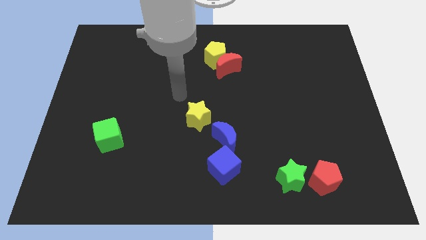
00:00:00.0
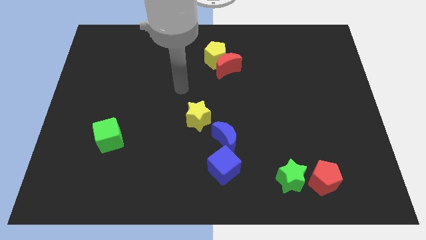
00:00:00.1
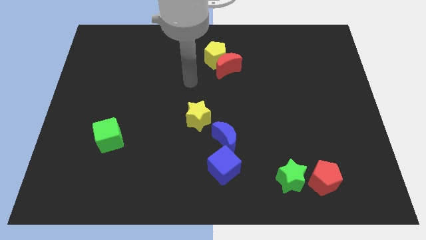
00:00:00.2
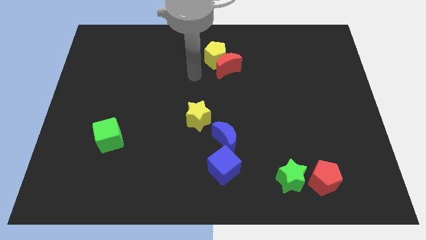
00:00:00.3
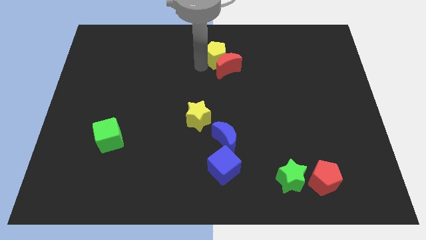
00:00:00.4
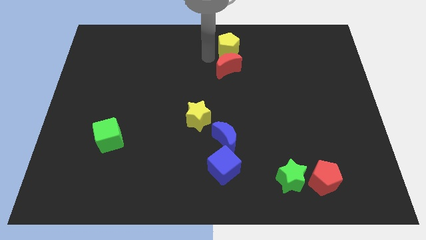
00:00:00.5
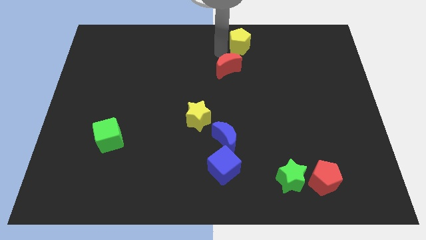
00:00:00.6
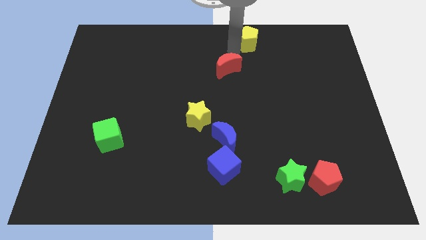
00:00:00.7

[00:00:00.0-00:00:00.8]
pull the red moon apart from the yellow pentagon

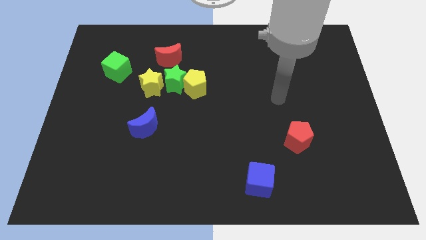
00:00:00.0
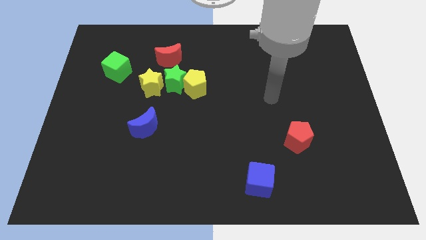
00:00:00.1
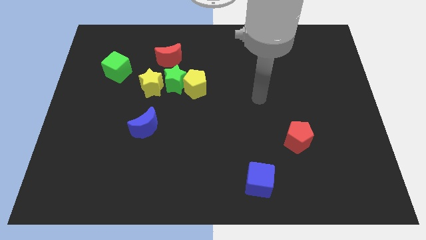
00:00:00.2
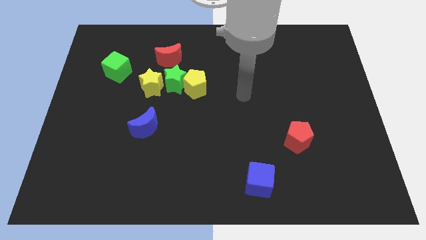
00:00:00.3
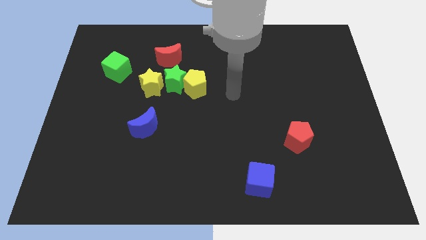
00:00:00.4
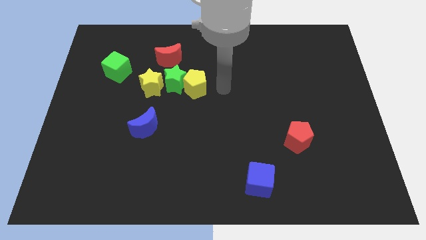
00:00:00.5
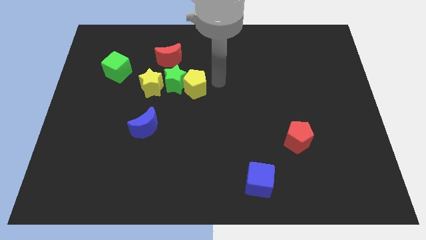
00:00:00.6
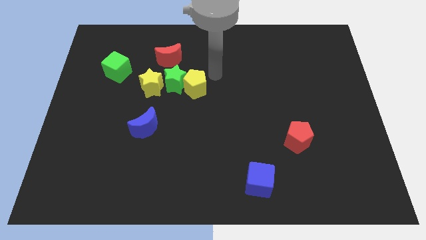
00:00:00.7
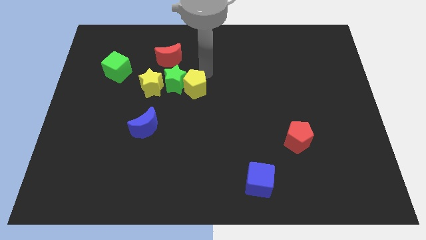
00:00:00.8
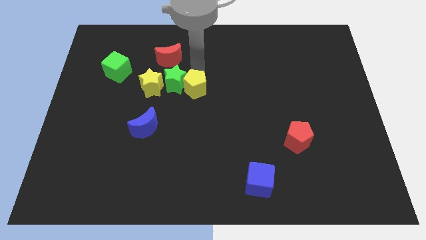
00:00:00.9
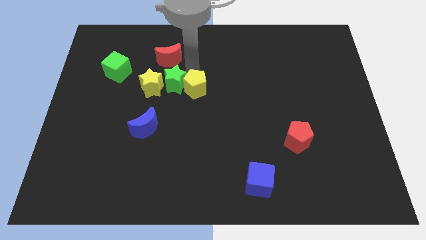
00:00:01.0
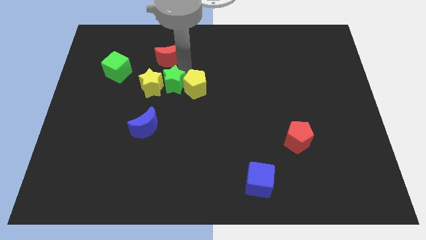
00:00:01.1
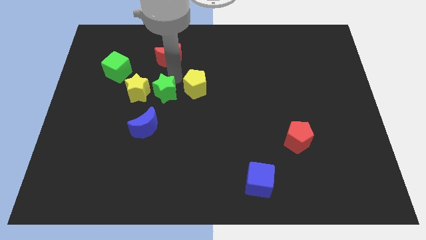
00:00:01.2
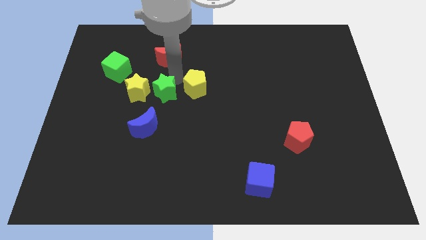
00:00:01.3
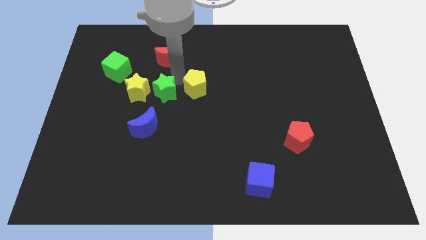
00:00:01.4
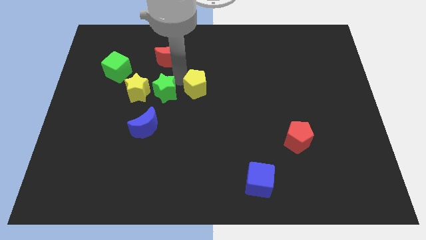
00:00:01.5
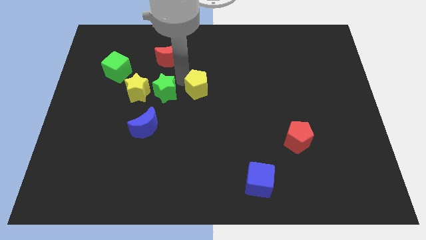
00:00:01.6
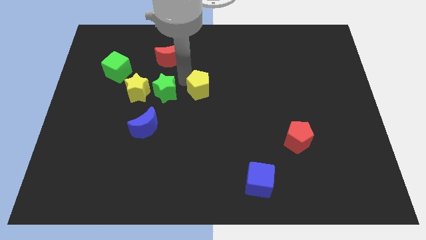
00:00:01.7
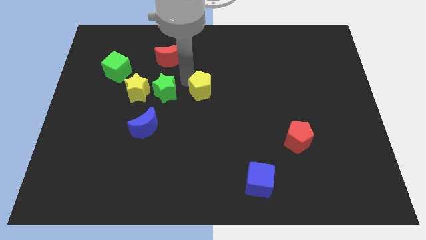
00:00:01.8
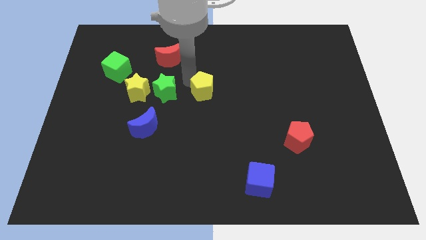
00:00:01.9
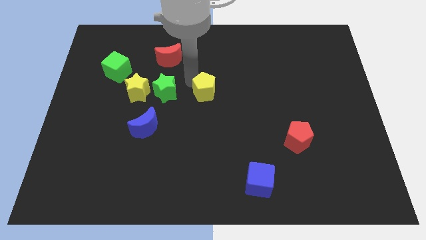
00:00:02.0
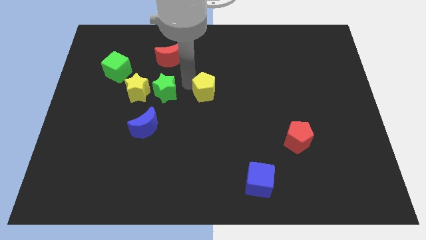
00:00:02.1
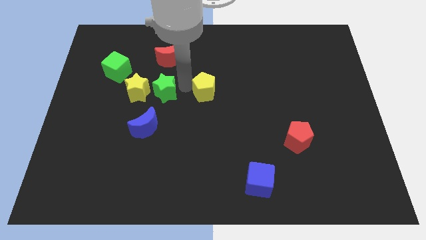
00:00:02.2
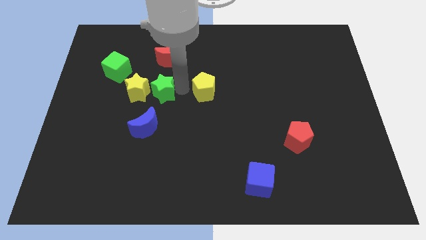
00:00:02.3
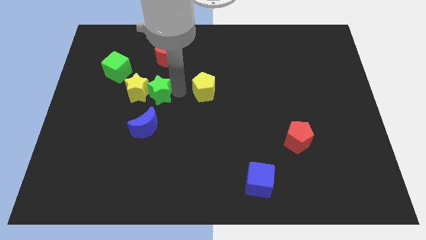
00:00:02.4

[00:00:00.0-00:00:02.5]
pull the yellow pentagon apart from the green star

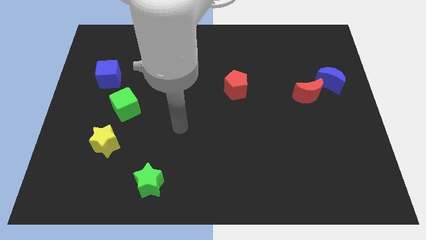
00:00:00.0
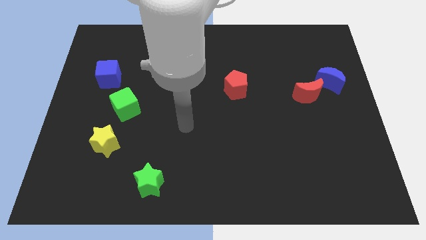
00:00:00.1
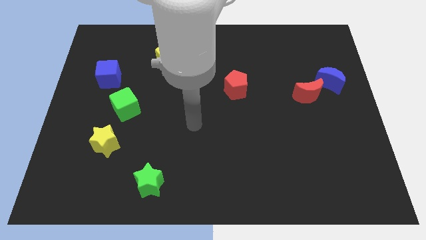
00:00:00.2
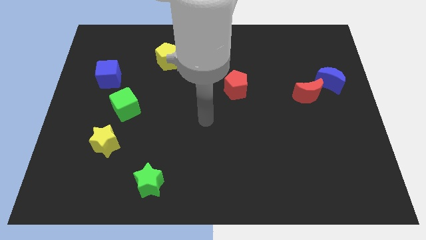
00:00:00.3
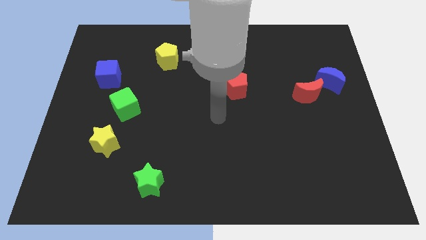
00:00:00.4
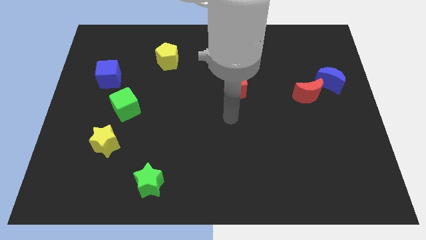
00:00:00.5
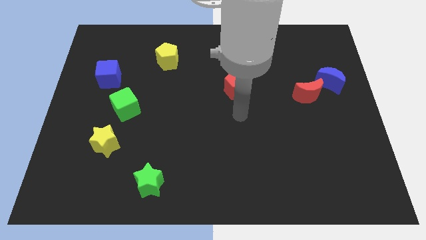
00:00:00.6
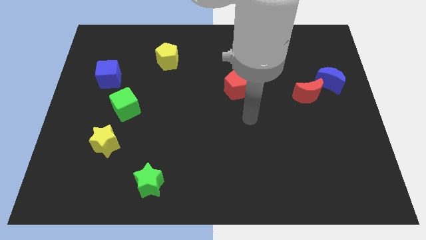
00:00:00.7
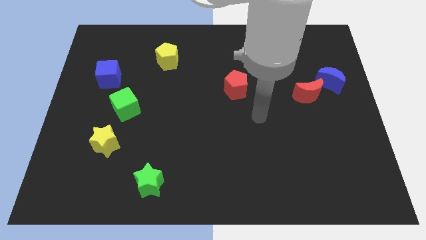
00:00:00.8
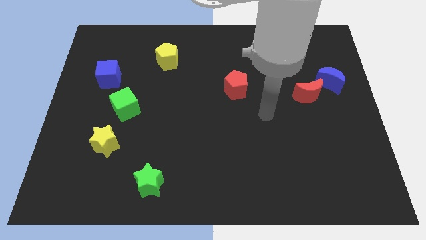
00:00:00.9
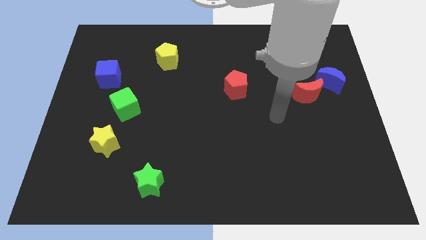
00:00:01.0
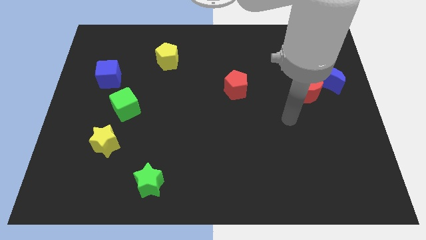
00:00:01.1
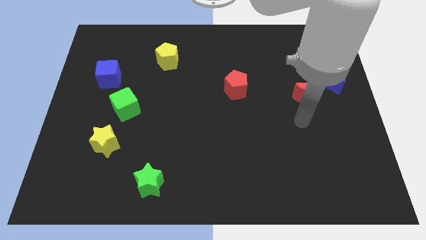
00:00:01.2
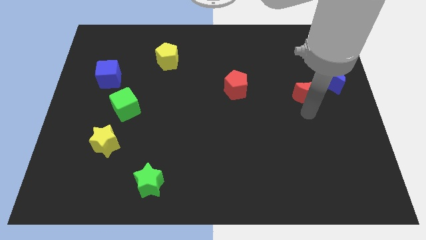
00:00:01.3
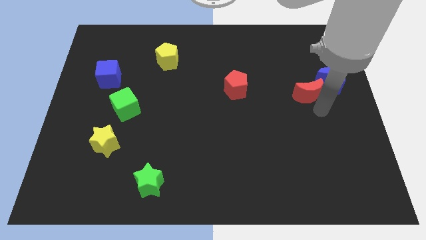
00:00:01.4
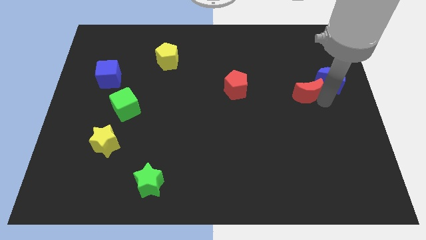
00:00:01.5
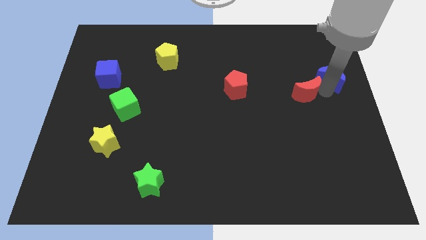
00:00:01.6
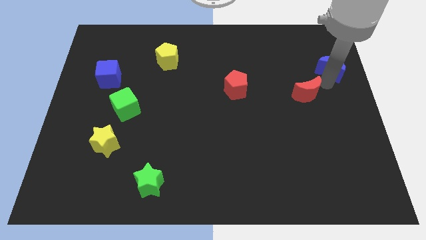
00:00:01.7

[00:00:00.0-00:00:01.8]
move the red moon away from the blue moon

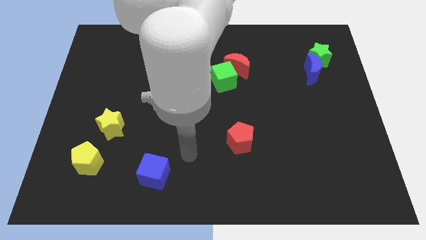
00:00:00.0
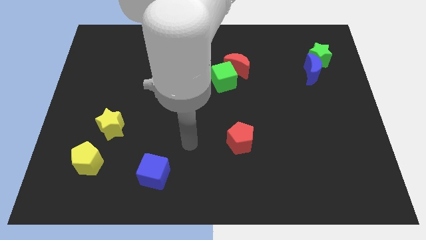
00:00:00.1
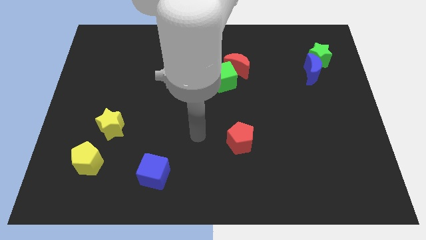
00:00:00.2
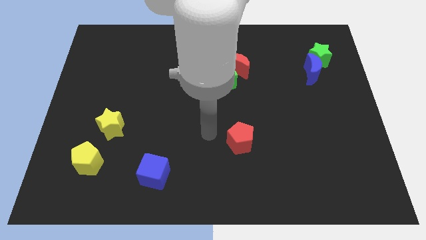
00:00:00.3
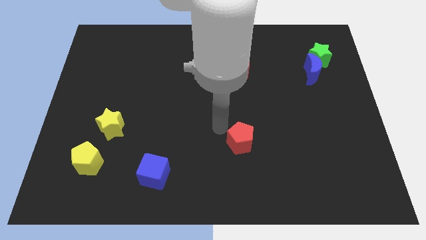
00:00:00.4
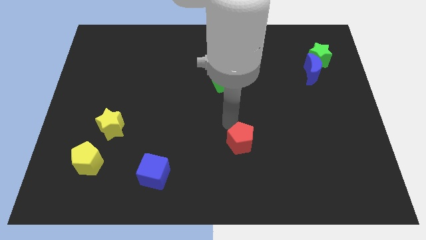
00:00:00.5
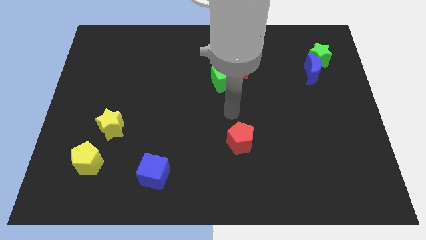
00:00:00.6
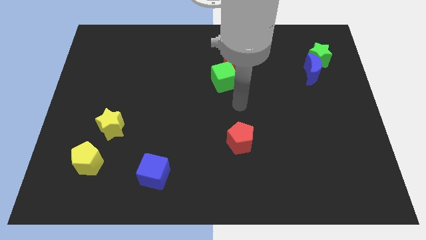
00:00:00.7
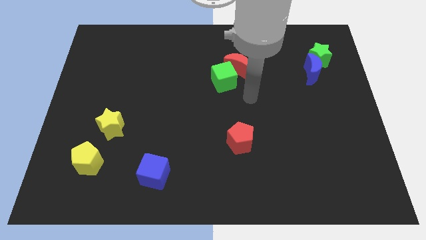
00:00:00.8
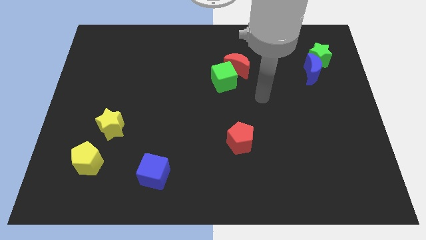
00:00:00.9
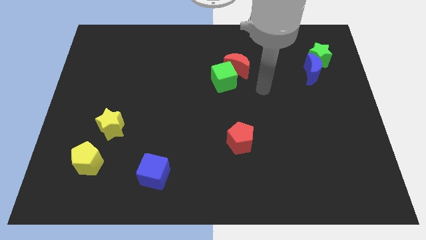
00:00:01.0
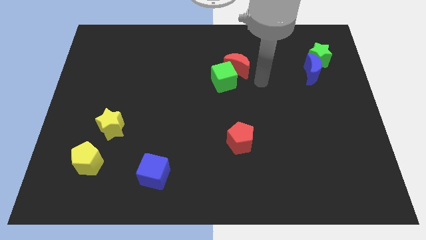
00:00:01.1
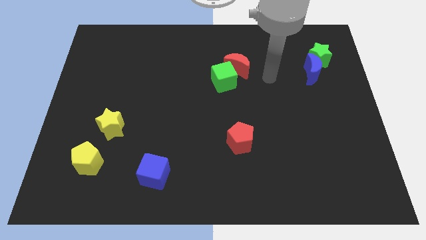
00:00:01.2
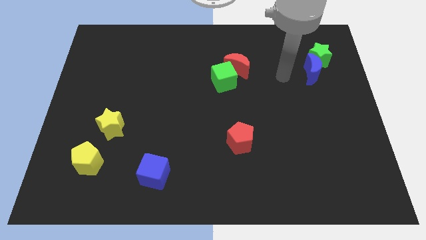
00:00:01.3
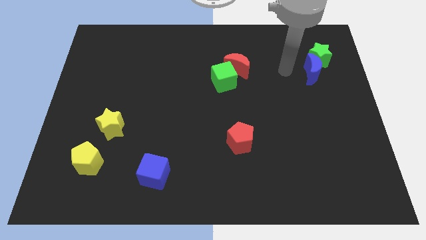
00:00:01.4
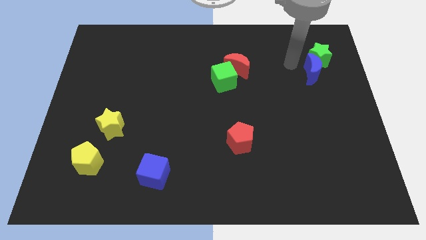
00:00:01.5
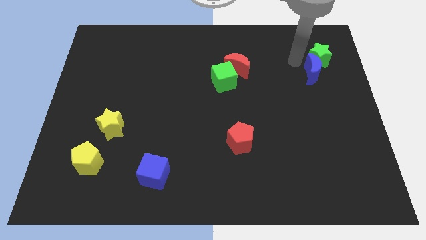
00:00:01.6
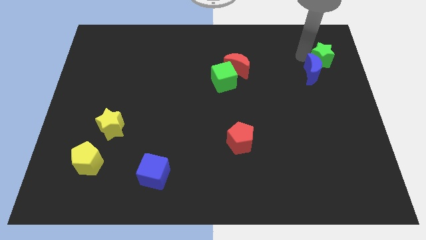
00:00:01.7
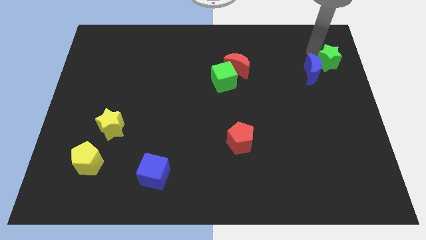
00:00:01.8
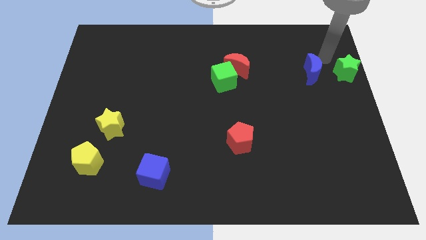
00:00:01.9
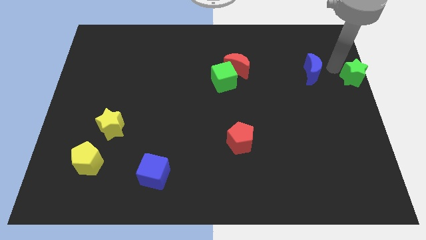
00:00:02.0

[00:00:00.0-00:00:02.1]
move the blue moon away from the green star

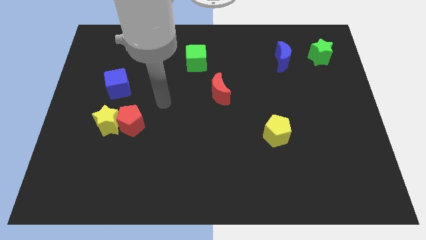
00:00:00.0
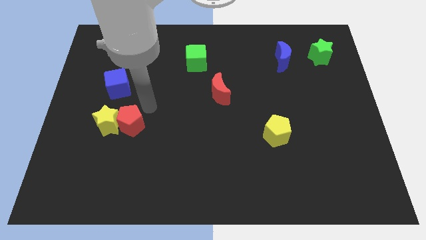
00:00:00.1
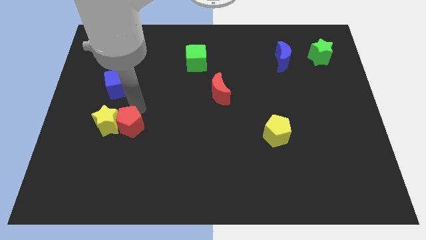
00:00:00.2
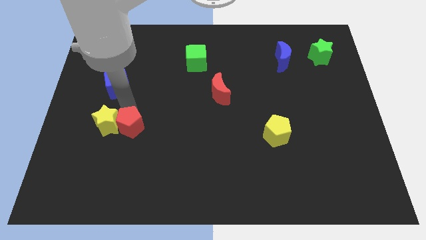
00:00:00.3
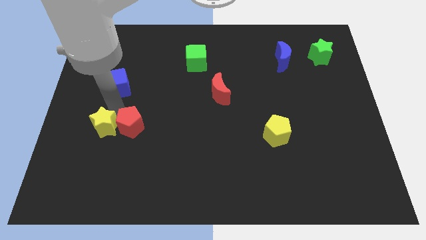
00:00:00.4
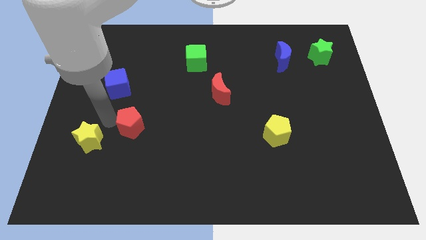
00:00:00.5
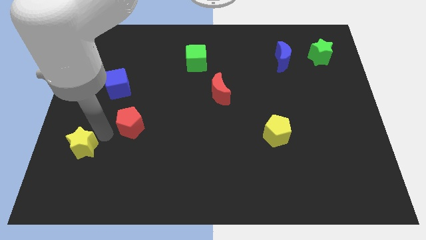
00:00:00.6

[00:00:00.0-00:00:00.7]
separate the red pentagon from the yellow star

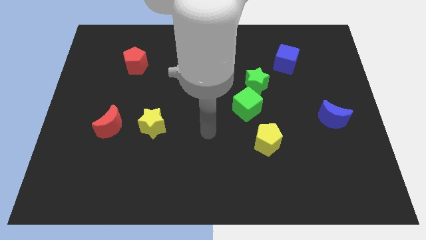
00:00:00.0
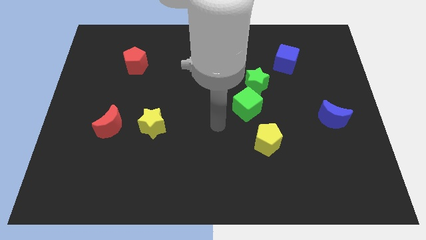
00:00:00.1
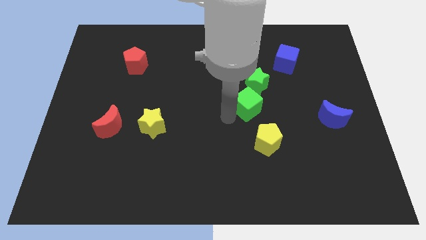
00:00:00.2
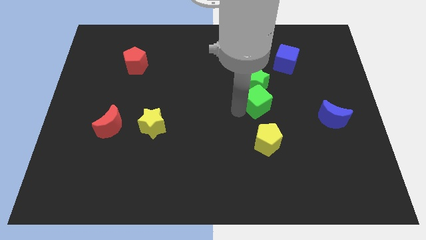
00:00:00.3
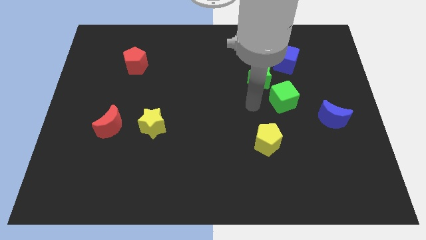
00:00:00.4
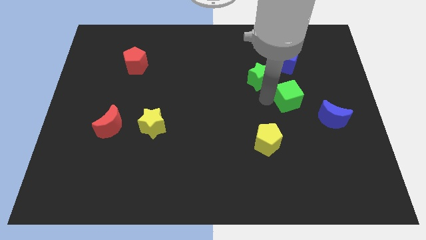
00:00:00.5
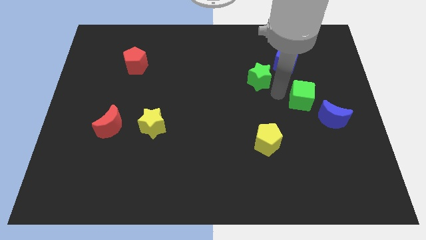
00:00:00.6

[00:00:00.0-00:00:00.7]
move the green star away from the green cube

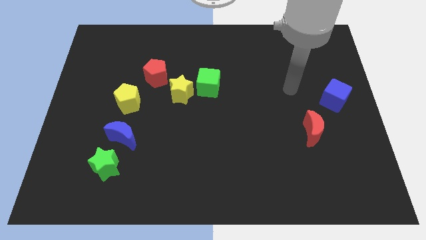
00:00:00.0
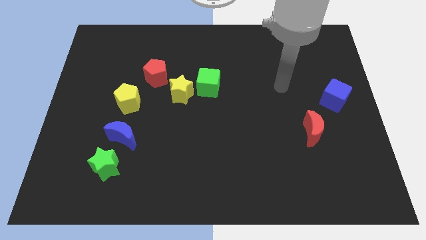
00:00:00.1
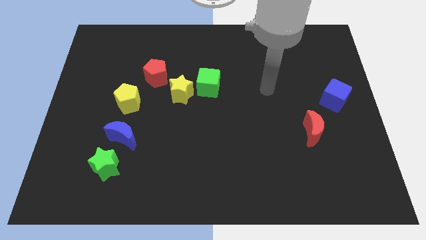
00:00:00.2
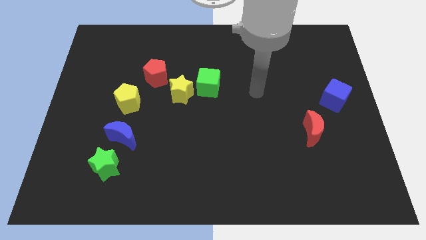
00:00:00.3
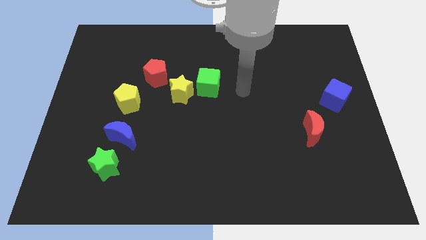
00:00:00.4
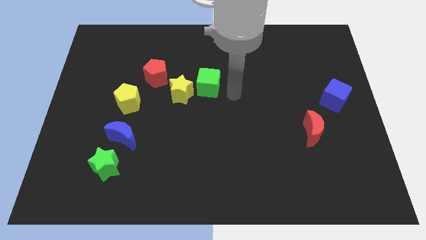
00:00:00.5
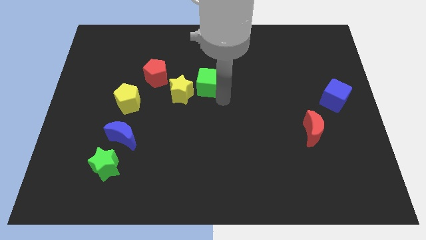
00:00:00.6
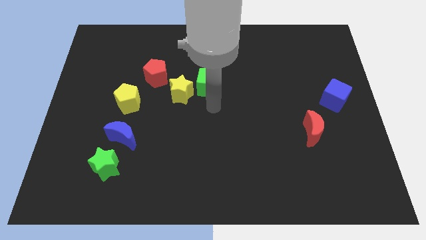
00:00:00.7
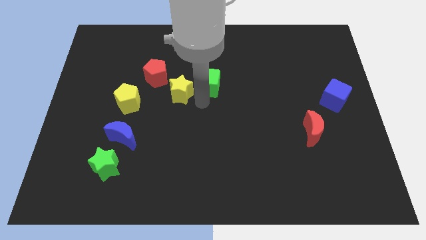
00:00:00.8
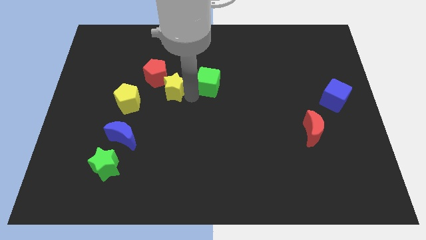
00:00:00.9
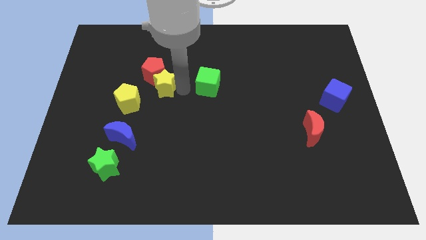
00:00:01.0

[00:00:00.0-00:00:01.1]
pull the green cube apart from the yellow star
